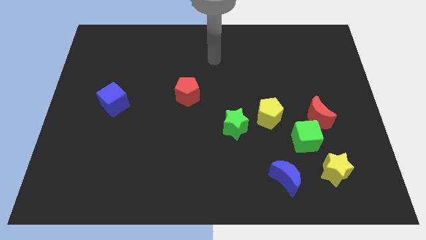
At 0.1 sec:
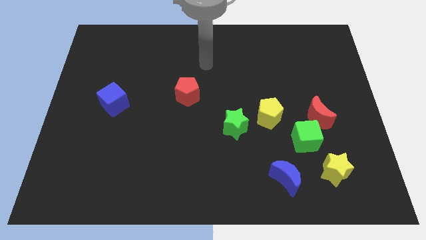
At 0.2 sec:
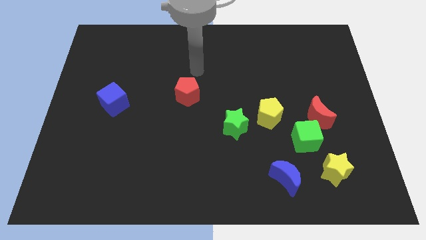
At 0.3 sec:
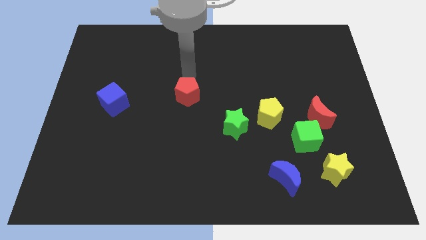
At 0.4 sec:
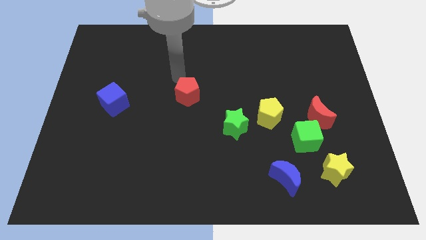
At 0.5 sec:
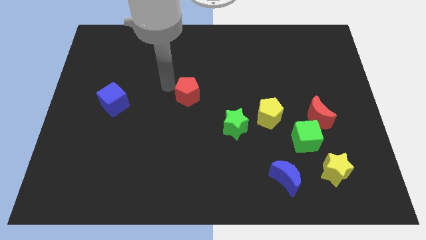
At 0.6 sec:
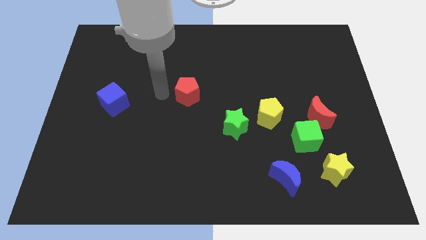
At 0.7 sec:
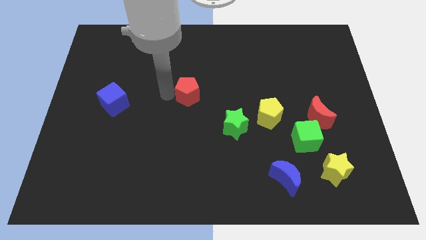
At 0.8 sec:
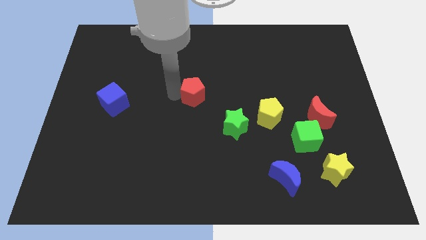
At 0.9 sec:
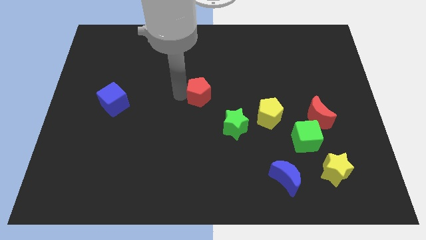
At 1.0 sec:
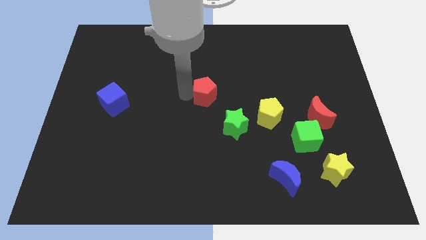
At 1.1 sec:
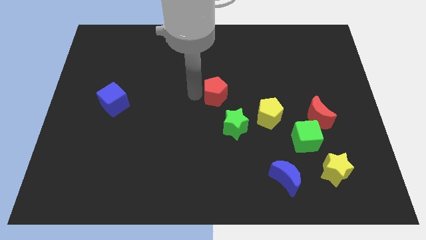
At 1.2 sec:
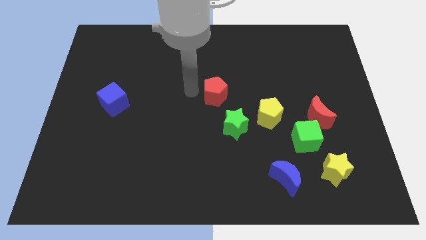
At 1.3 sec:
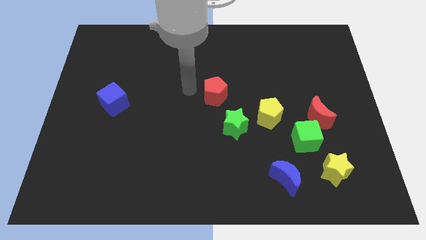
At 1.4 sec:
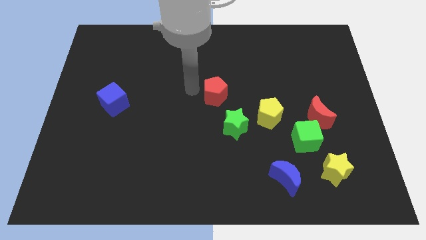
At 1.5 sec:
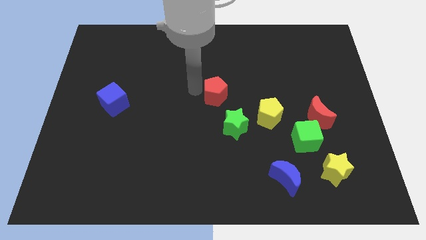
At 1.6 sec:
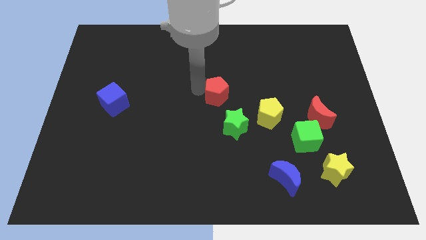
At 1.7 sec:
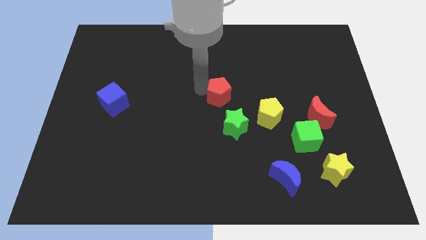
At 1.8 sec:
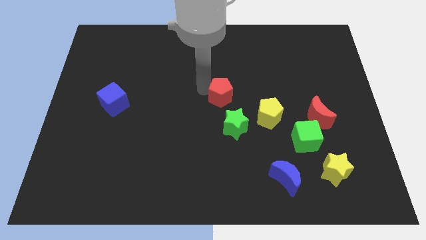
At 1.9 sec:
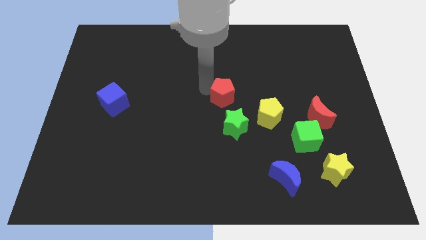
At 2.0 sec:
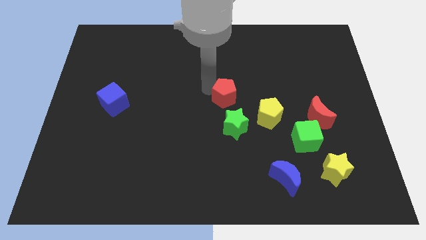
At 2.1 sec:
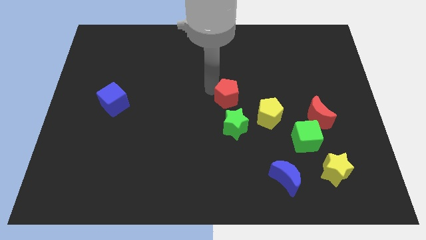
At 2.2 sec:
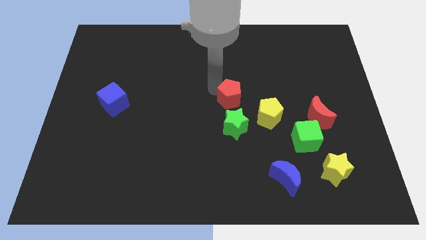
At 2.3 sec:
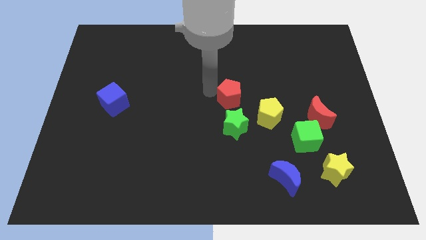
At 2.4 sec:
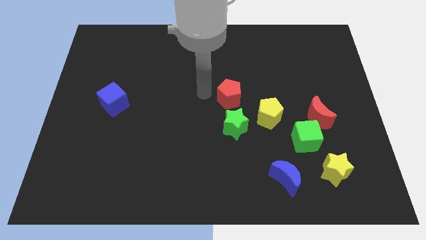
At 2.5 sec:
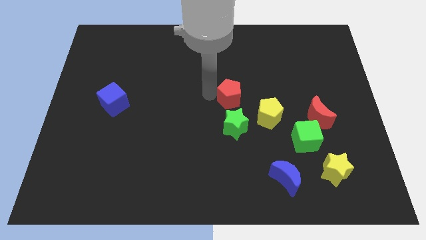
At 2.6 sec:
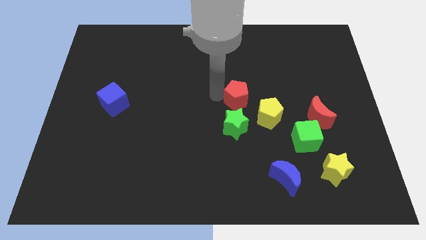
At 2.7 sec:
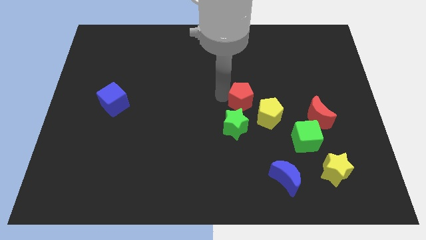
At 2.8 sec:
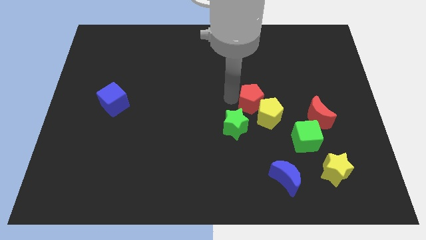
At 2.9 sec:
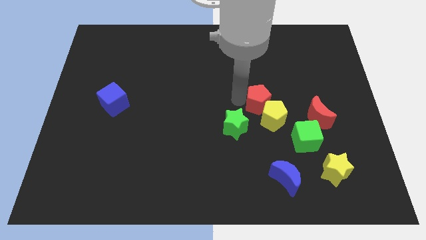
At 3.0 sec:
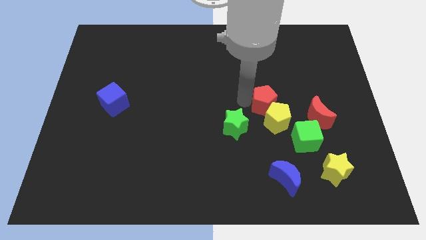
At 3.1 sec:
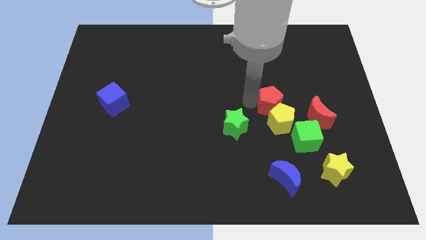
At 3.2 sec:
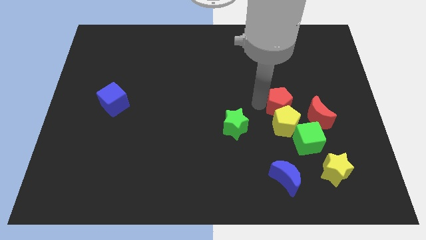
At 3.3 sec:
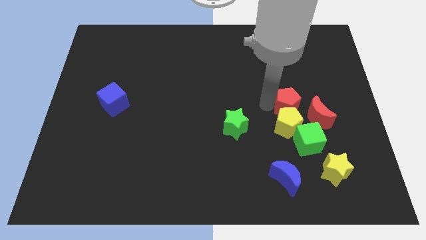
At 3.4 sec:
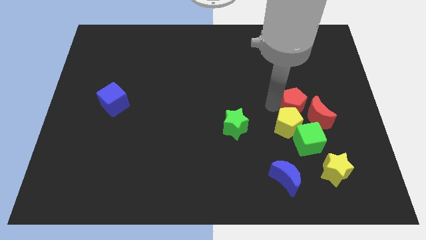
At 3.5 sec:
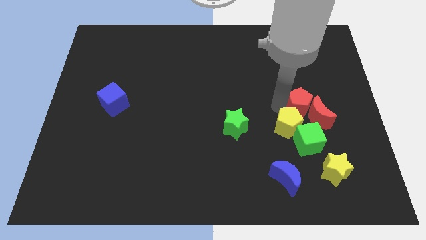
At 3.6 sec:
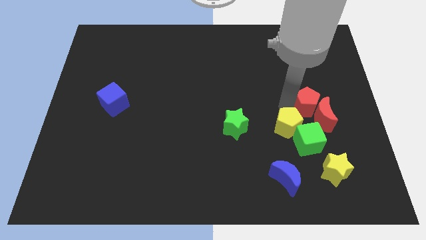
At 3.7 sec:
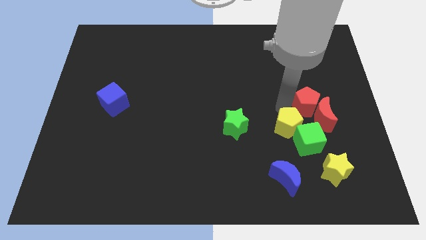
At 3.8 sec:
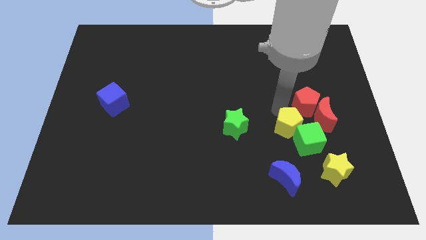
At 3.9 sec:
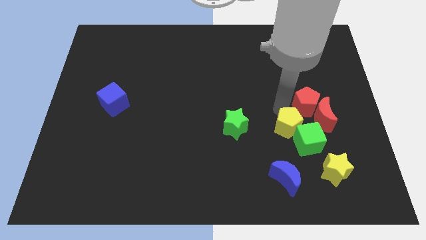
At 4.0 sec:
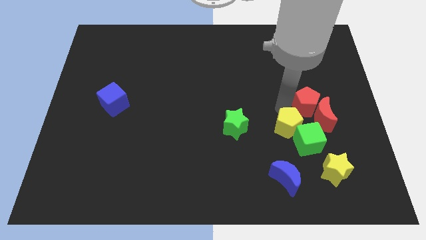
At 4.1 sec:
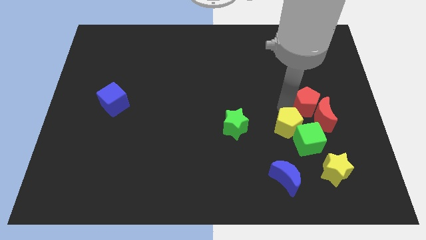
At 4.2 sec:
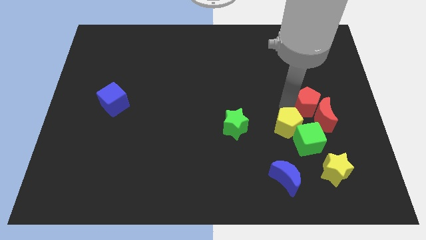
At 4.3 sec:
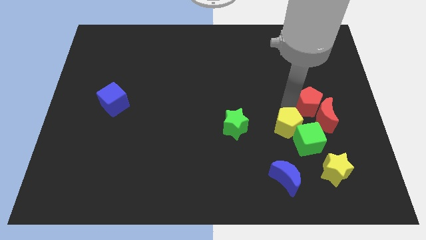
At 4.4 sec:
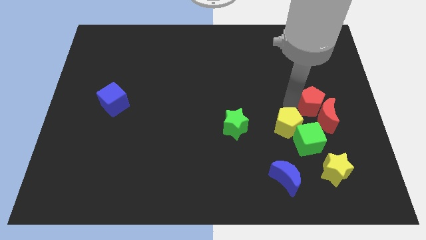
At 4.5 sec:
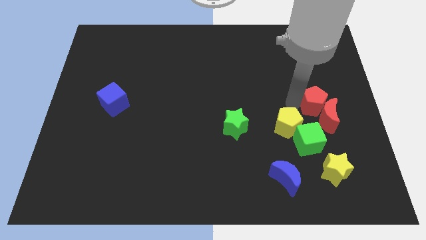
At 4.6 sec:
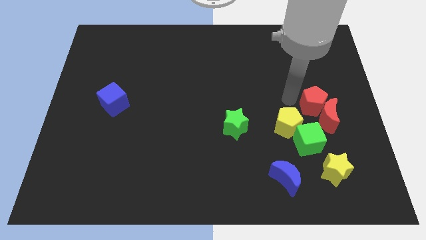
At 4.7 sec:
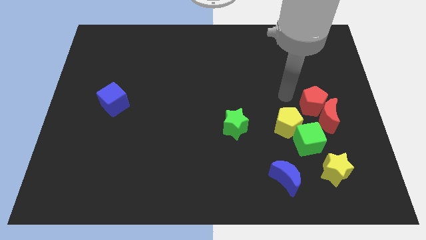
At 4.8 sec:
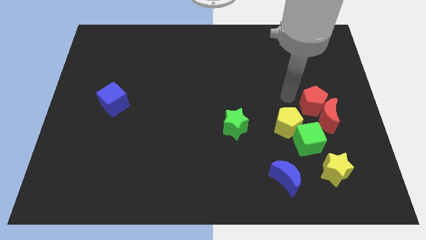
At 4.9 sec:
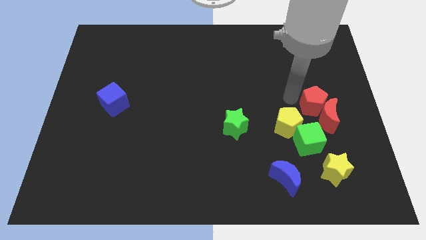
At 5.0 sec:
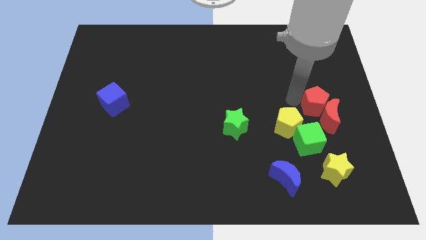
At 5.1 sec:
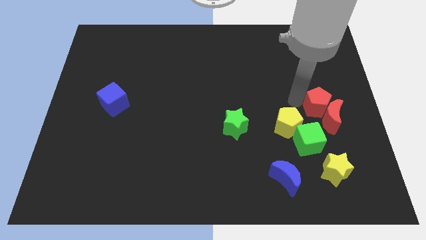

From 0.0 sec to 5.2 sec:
push the red pentagon diagonally up and to the right of the green cube
